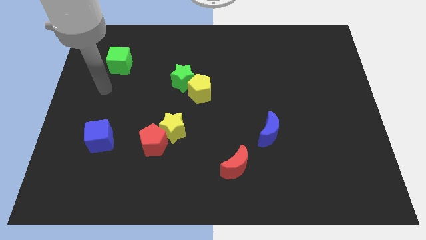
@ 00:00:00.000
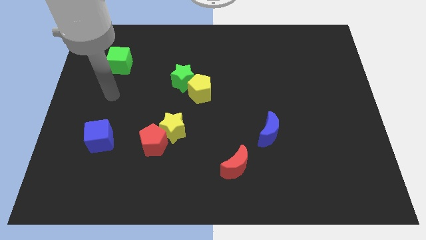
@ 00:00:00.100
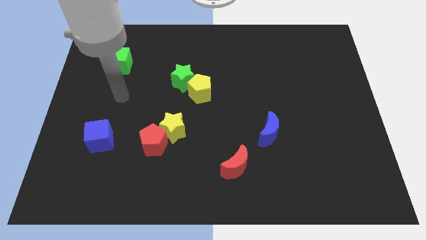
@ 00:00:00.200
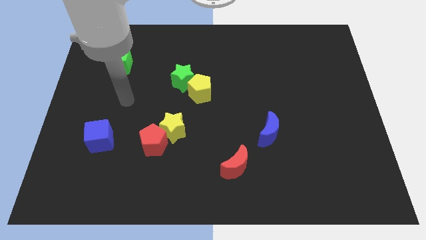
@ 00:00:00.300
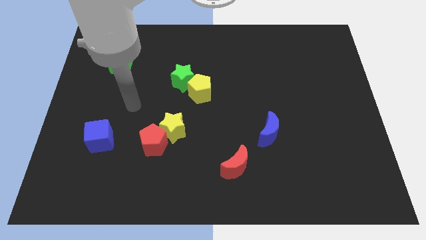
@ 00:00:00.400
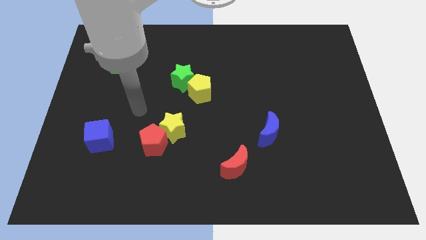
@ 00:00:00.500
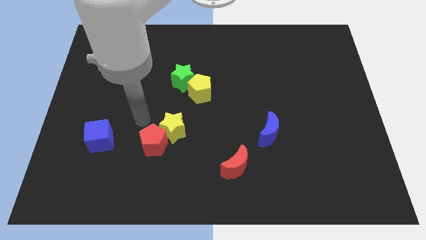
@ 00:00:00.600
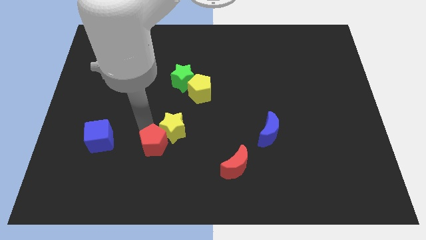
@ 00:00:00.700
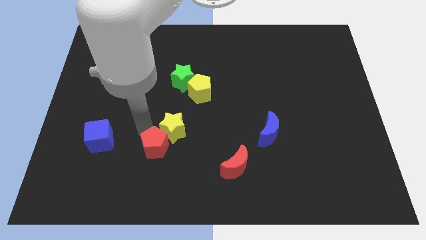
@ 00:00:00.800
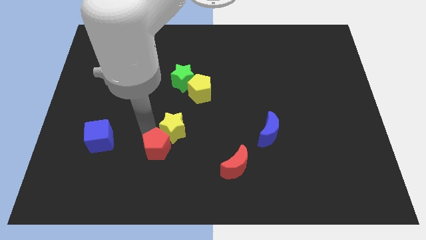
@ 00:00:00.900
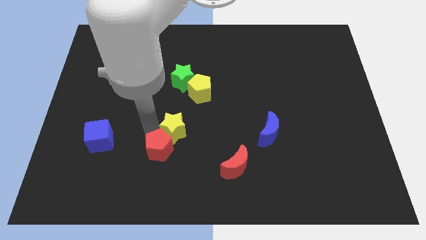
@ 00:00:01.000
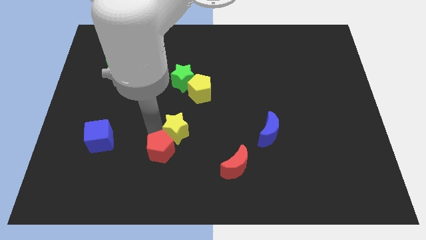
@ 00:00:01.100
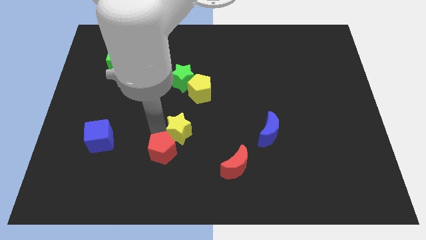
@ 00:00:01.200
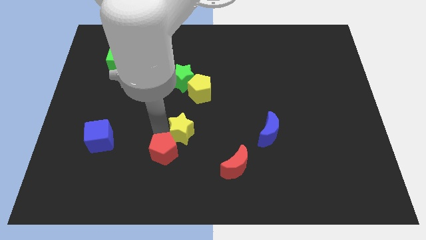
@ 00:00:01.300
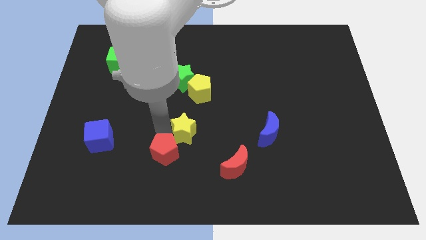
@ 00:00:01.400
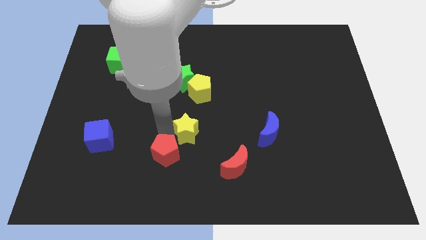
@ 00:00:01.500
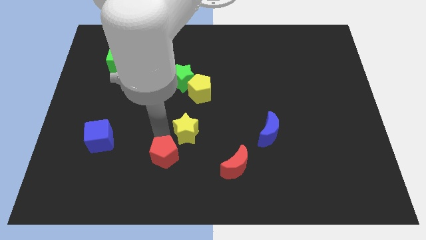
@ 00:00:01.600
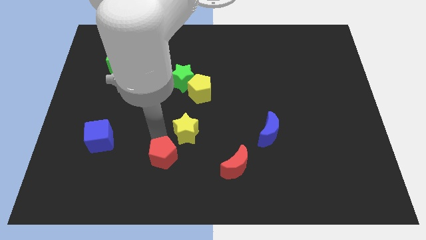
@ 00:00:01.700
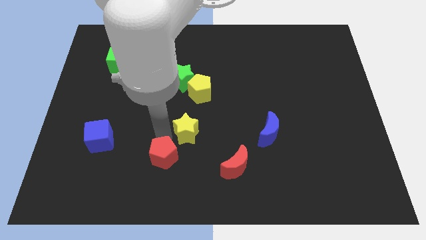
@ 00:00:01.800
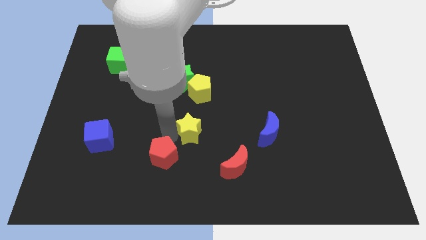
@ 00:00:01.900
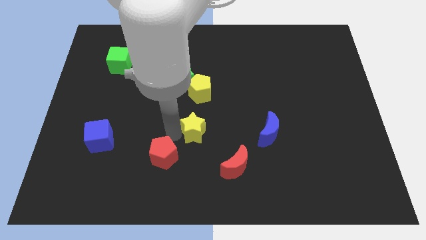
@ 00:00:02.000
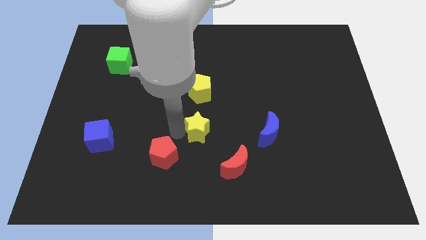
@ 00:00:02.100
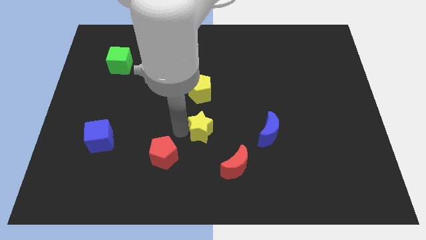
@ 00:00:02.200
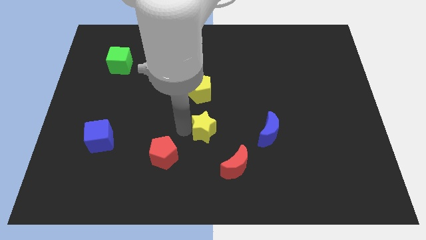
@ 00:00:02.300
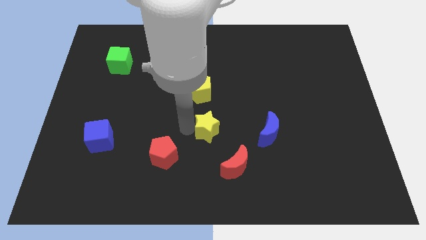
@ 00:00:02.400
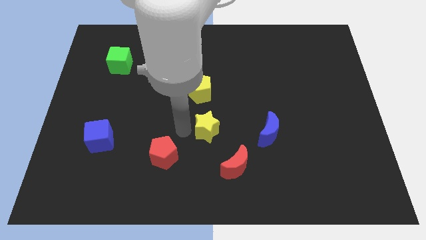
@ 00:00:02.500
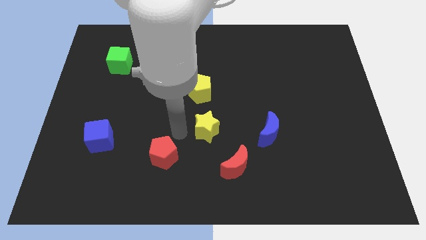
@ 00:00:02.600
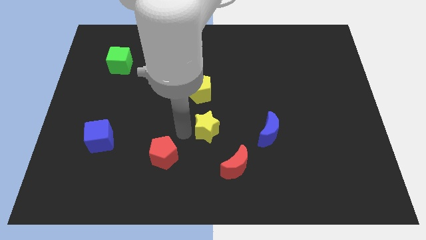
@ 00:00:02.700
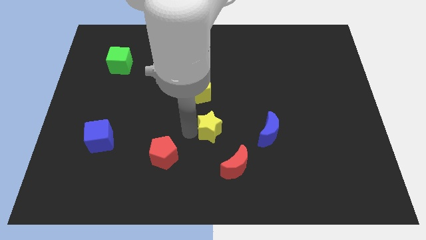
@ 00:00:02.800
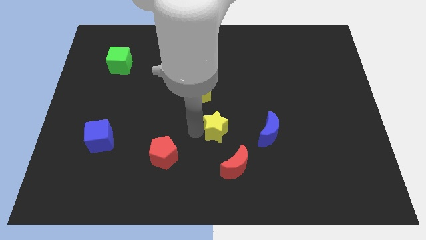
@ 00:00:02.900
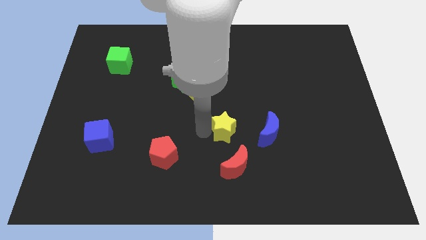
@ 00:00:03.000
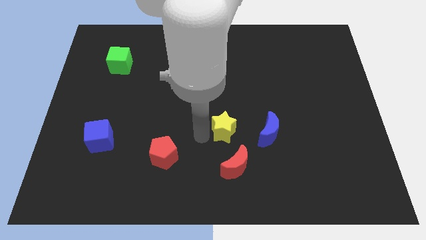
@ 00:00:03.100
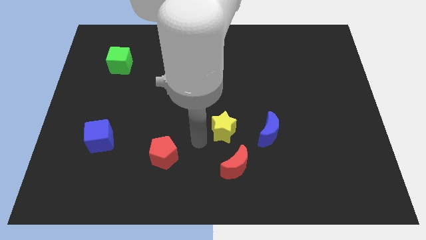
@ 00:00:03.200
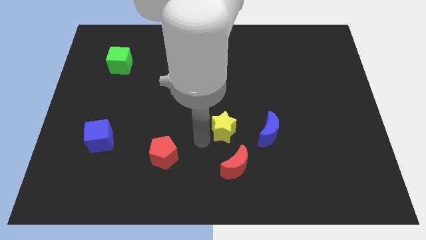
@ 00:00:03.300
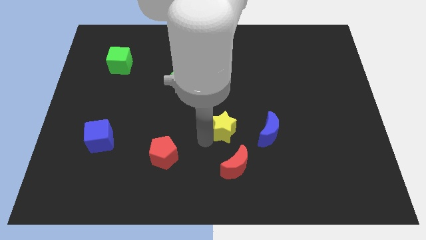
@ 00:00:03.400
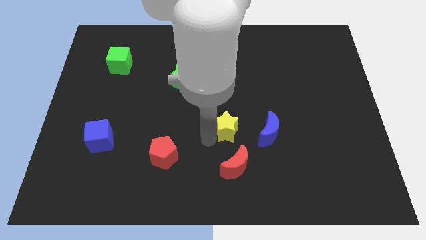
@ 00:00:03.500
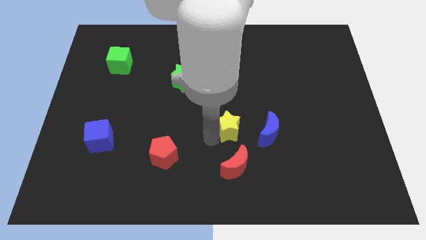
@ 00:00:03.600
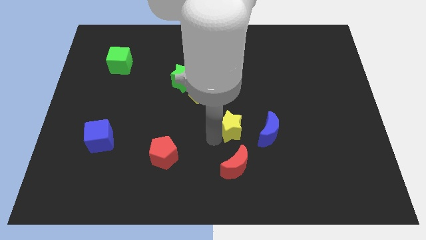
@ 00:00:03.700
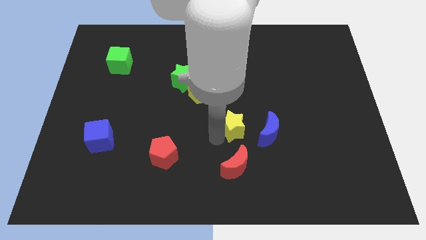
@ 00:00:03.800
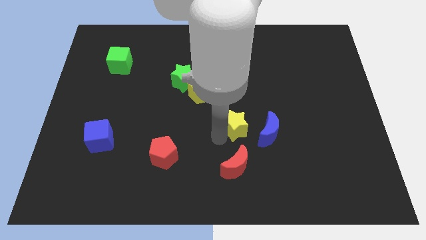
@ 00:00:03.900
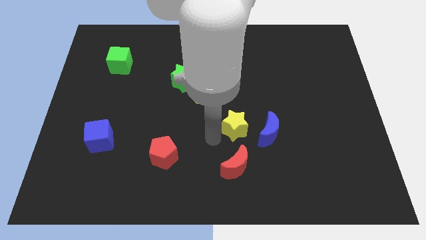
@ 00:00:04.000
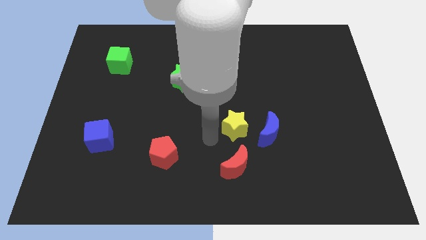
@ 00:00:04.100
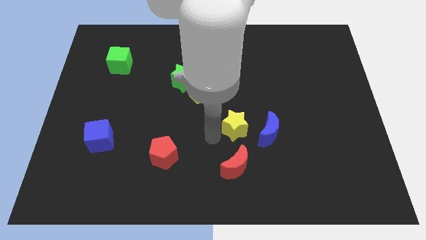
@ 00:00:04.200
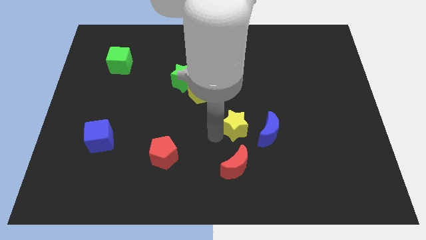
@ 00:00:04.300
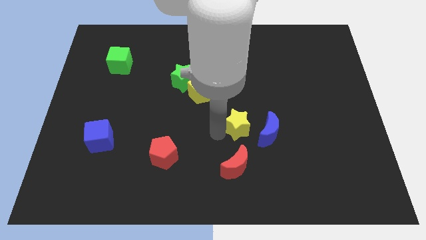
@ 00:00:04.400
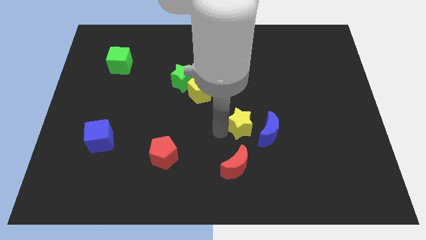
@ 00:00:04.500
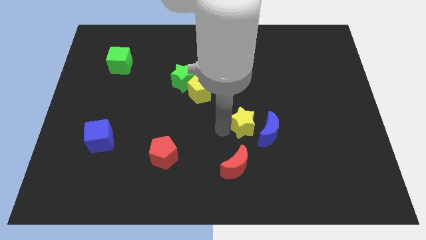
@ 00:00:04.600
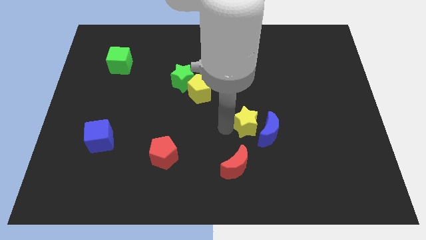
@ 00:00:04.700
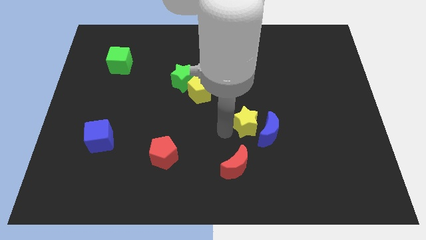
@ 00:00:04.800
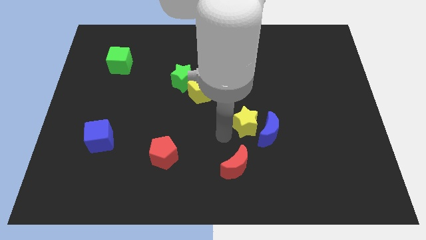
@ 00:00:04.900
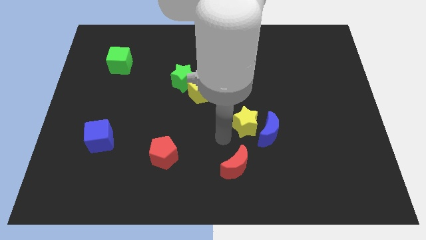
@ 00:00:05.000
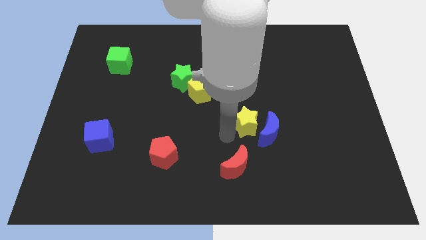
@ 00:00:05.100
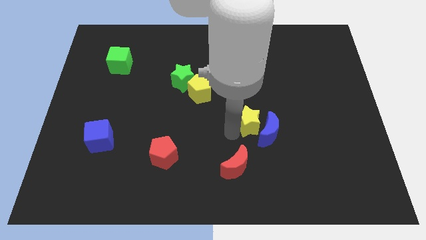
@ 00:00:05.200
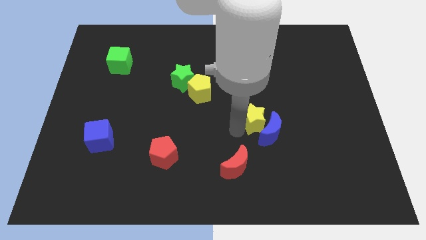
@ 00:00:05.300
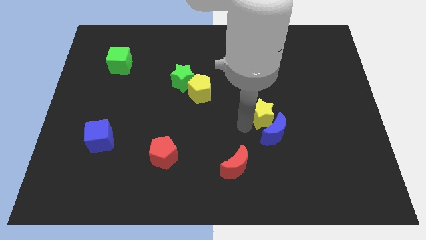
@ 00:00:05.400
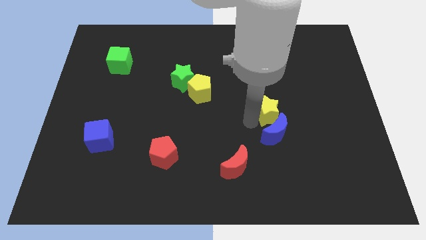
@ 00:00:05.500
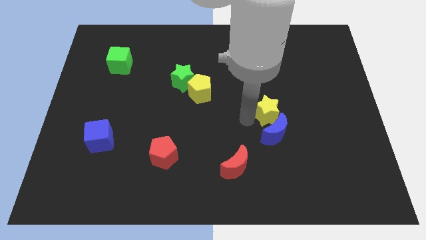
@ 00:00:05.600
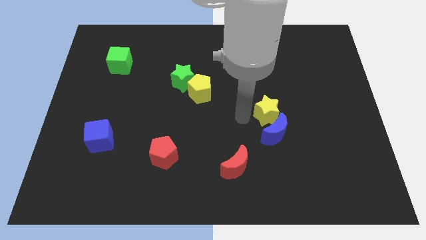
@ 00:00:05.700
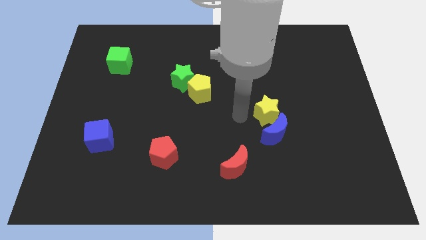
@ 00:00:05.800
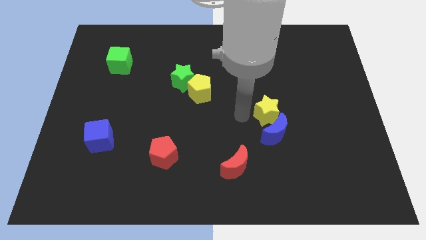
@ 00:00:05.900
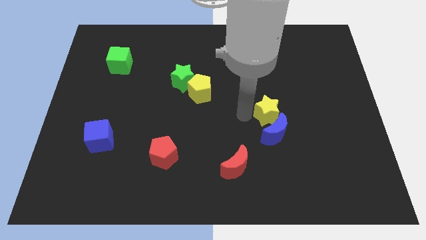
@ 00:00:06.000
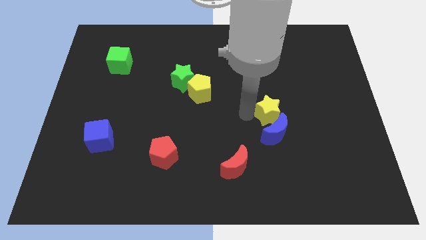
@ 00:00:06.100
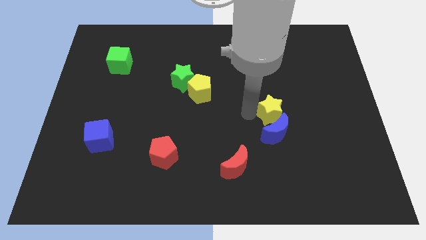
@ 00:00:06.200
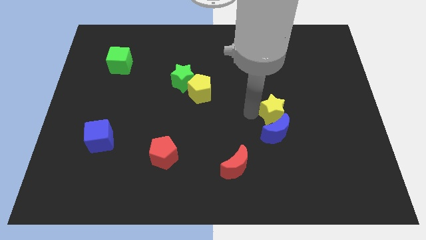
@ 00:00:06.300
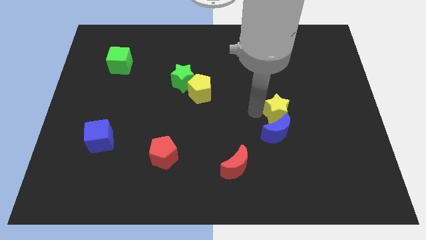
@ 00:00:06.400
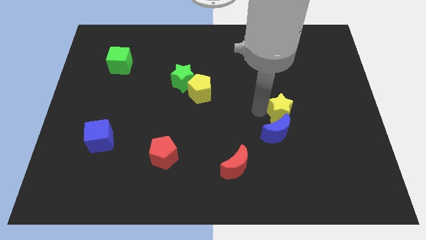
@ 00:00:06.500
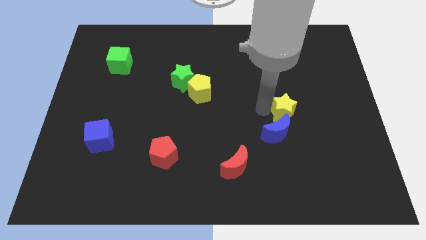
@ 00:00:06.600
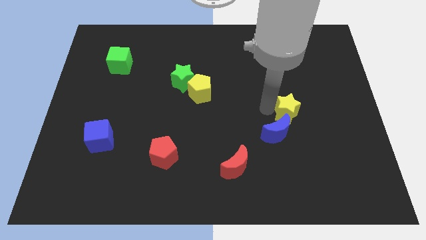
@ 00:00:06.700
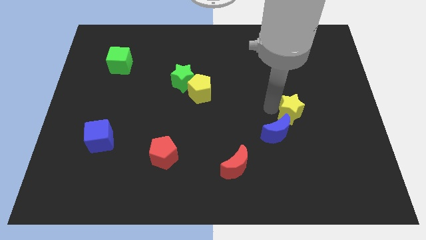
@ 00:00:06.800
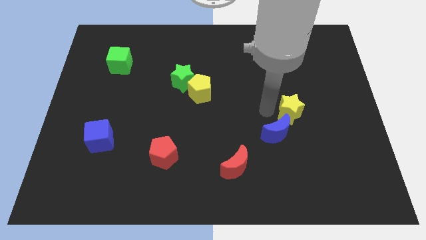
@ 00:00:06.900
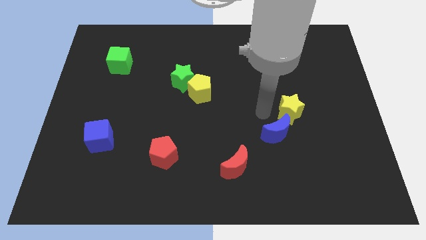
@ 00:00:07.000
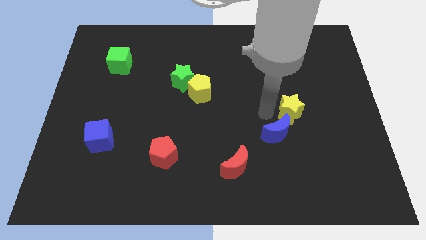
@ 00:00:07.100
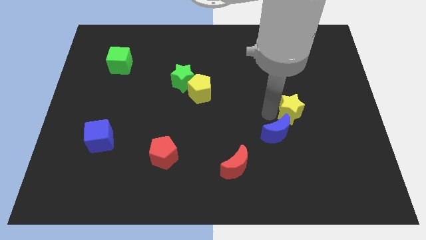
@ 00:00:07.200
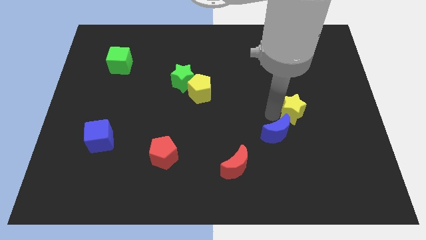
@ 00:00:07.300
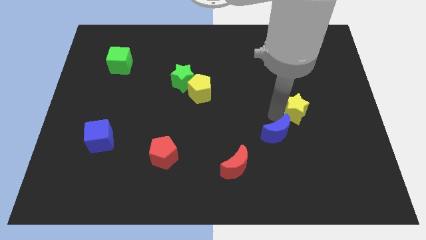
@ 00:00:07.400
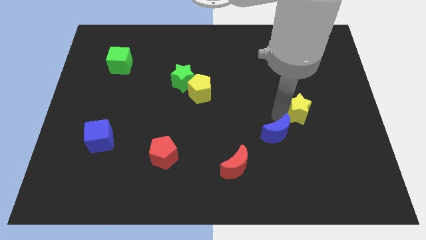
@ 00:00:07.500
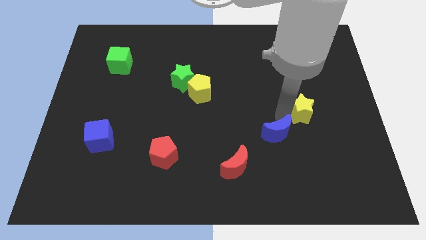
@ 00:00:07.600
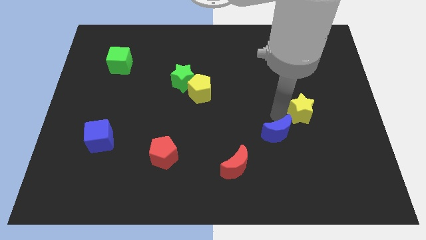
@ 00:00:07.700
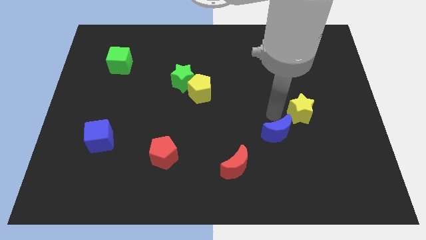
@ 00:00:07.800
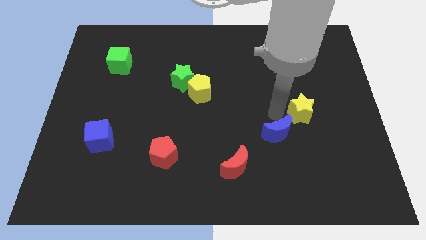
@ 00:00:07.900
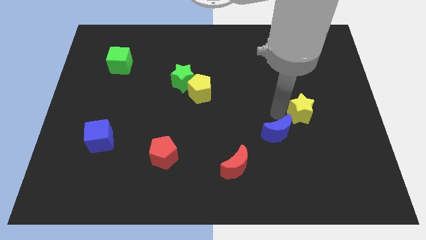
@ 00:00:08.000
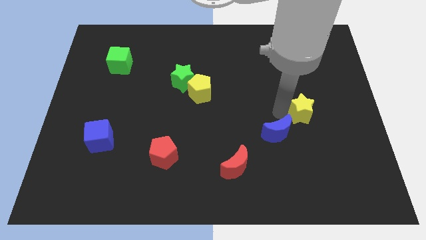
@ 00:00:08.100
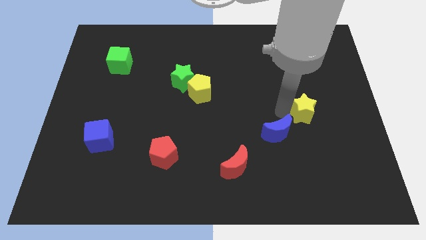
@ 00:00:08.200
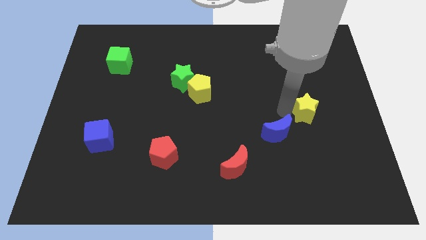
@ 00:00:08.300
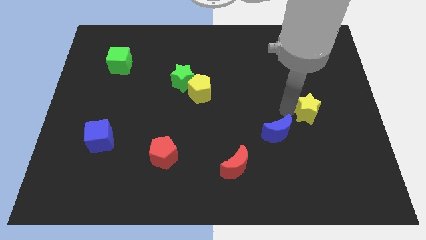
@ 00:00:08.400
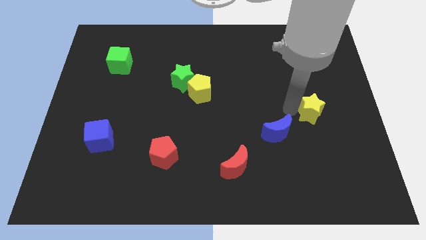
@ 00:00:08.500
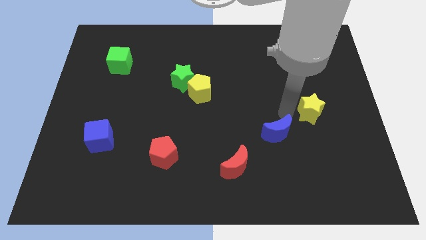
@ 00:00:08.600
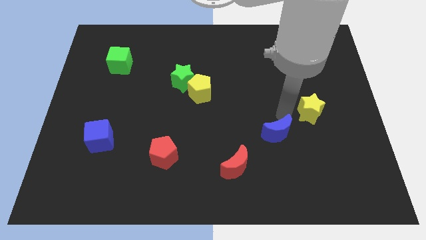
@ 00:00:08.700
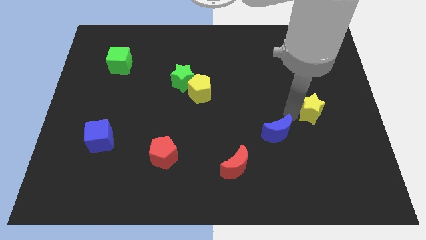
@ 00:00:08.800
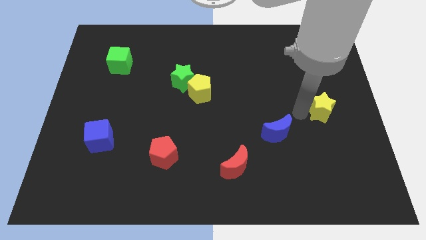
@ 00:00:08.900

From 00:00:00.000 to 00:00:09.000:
put the yellow star to the center right
